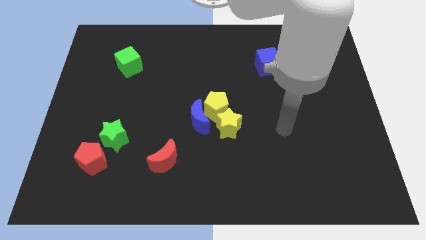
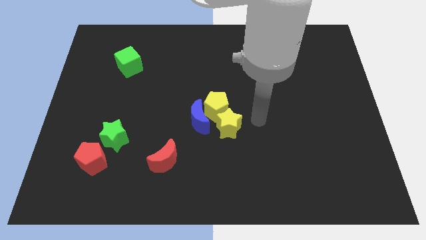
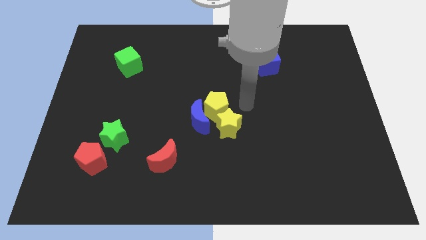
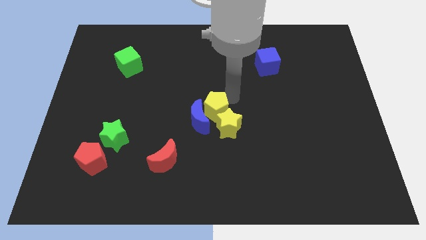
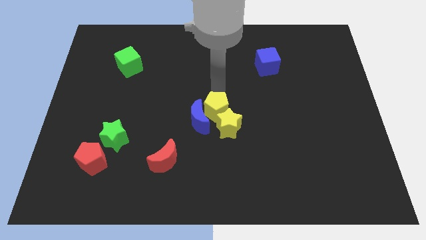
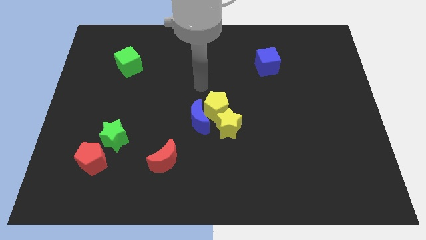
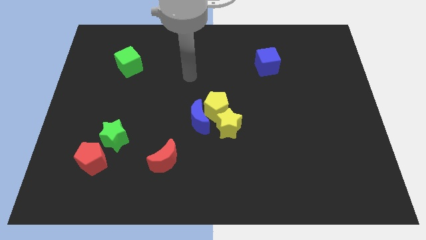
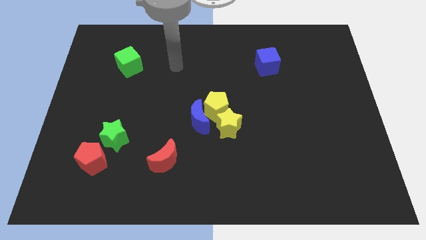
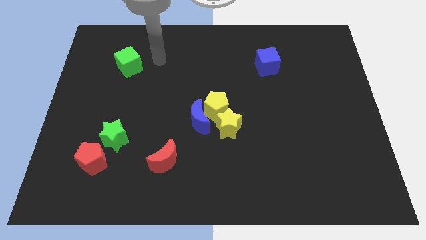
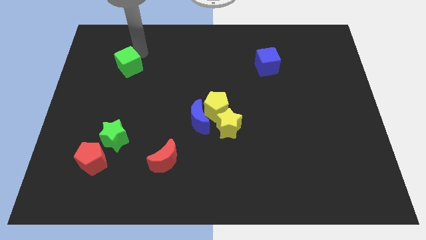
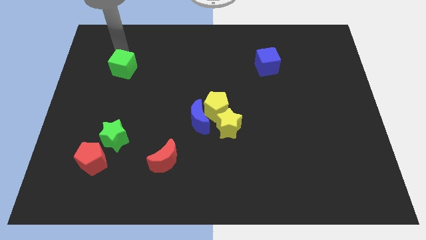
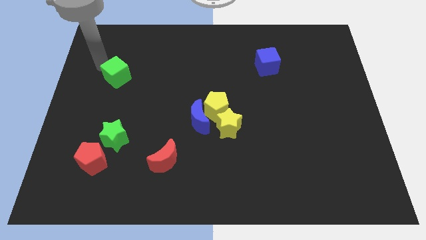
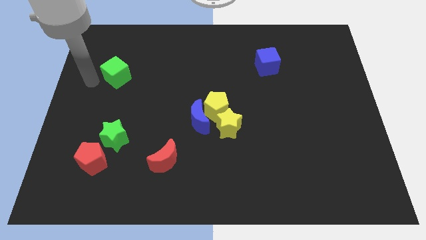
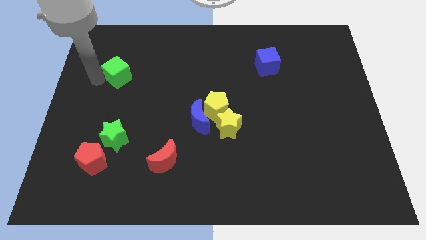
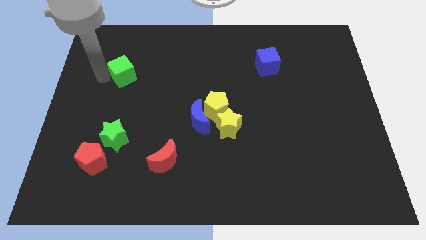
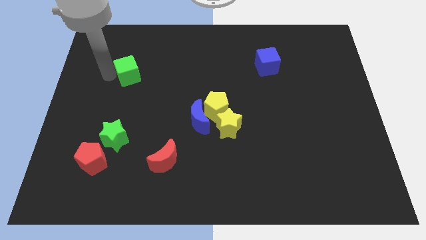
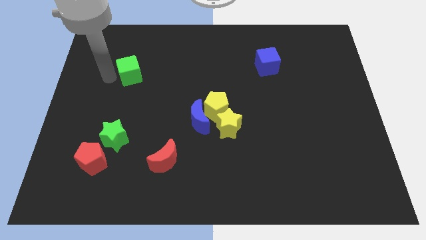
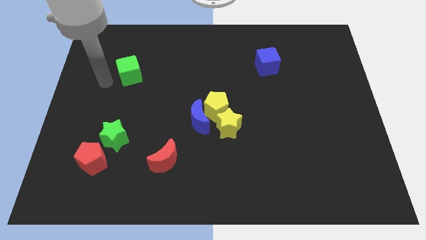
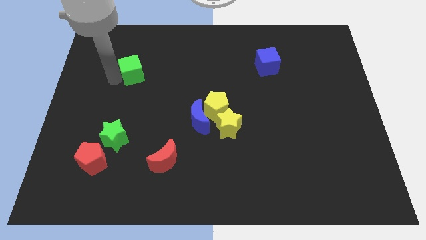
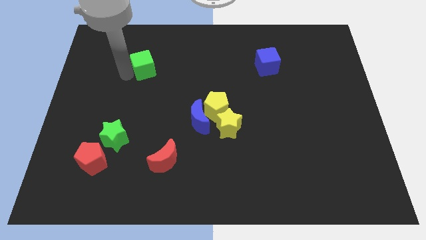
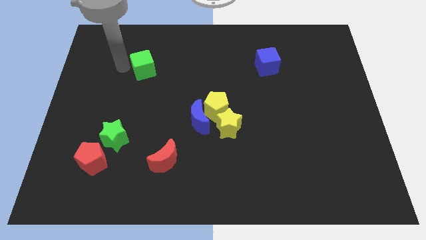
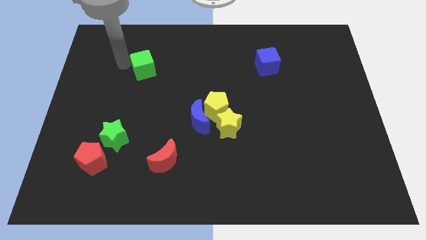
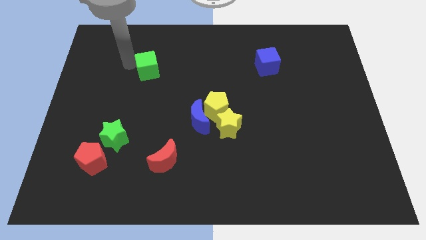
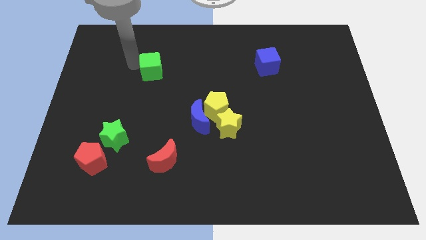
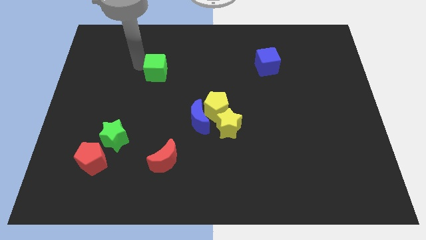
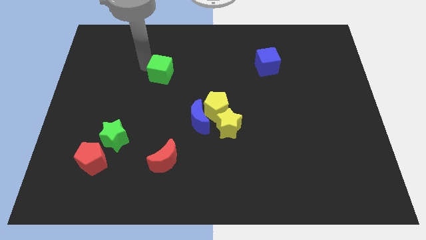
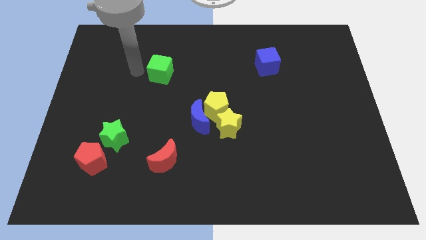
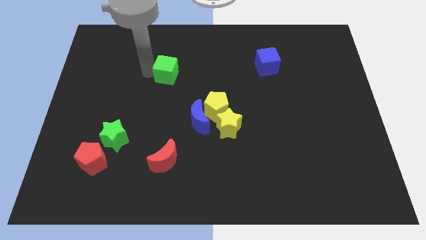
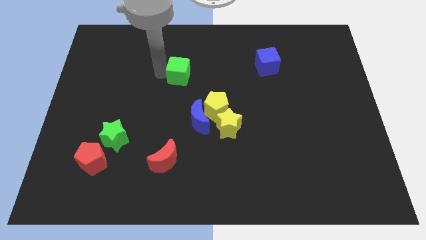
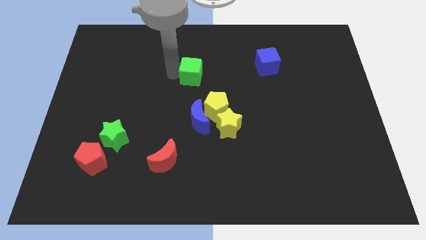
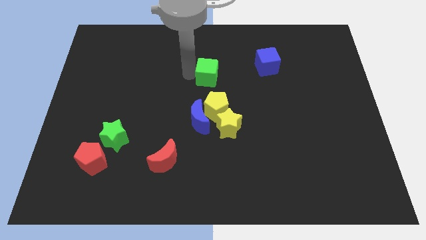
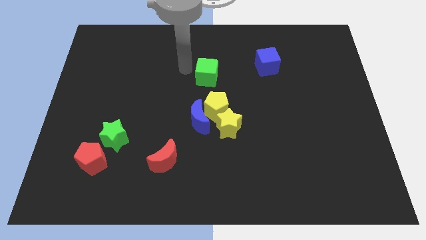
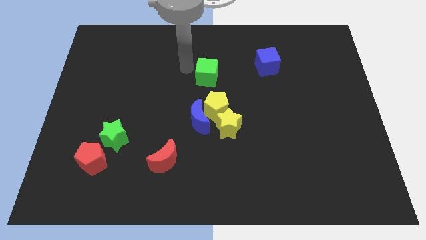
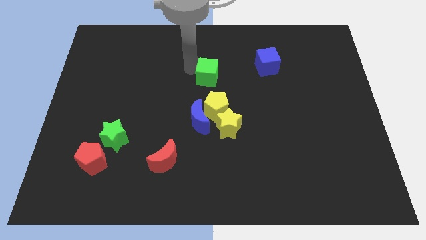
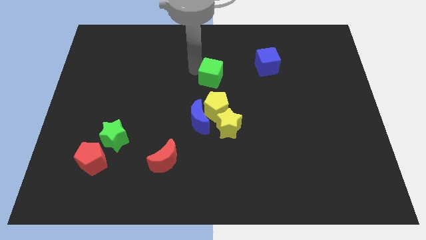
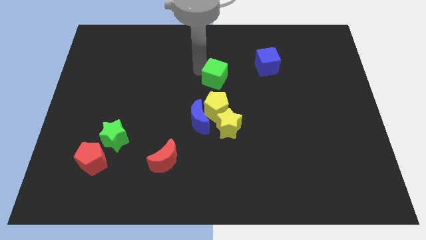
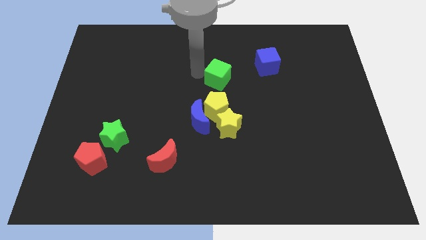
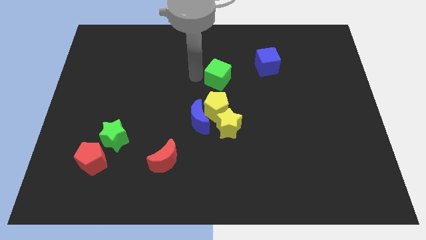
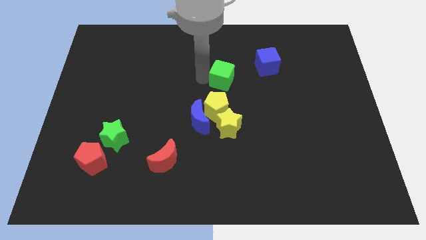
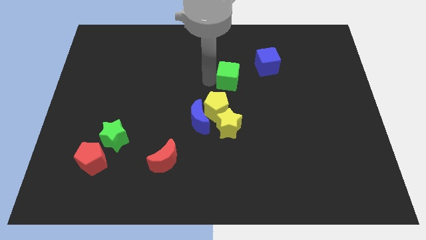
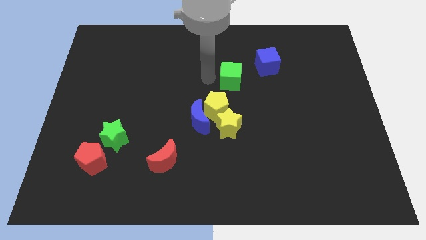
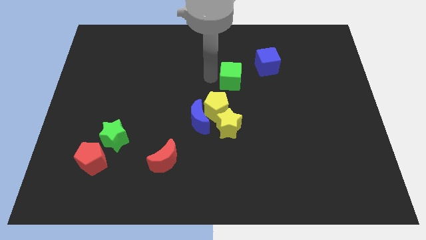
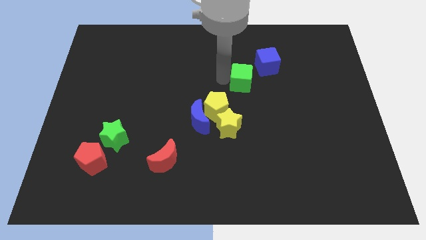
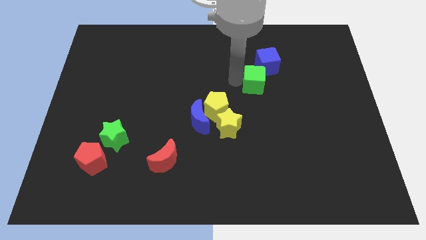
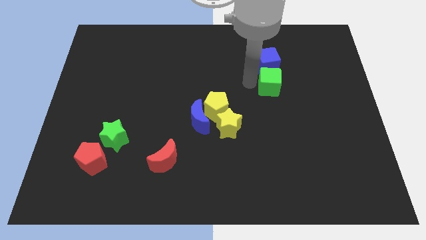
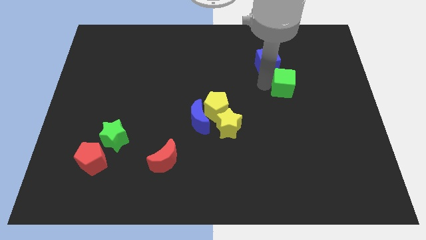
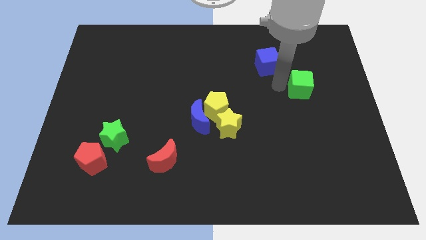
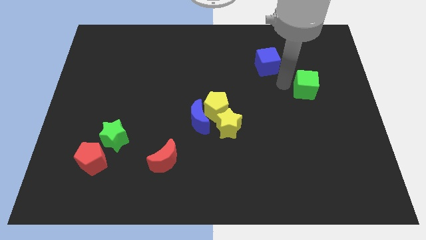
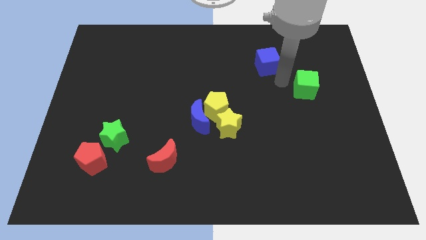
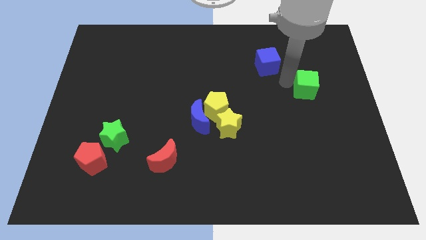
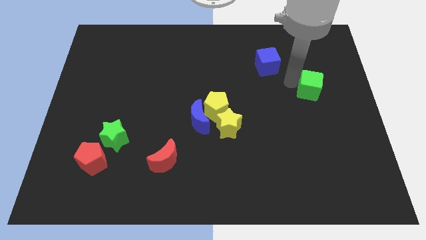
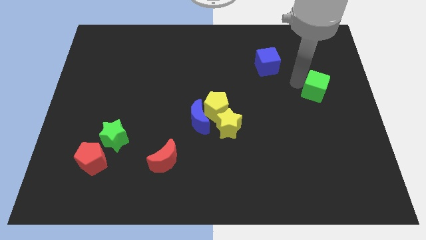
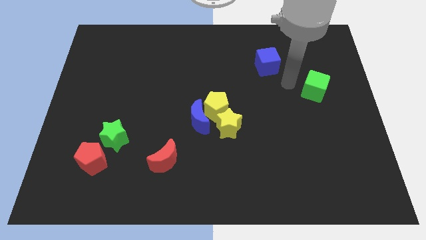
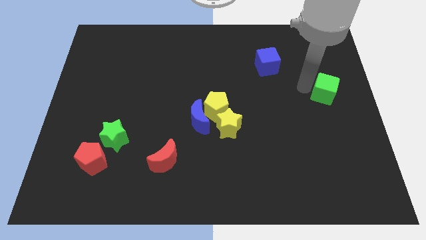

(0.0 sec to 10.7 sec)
put the green cube to the center right

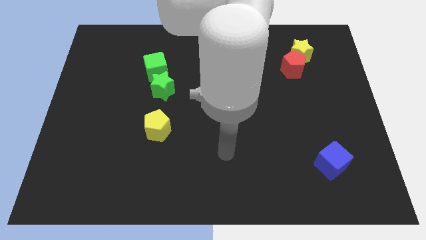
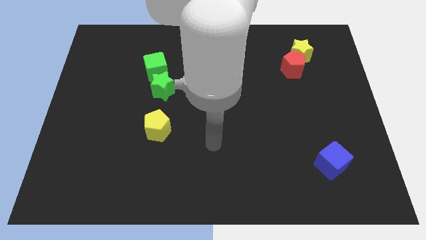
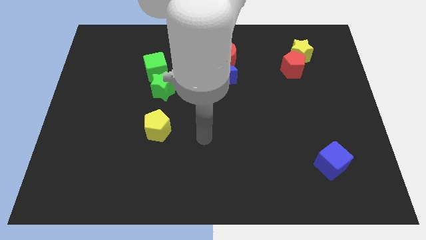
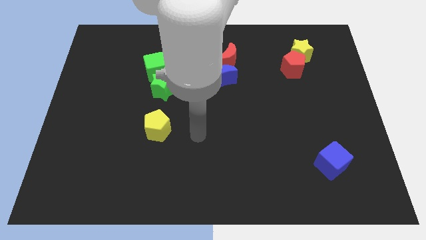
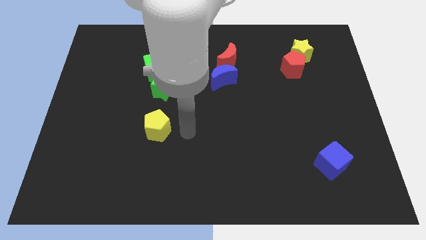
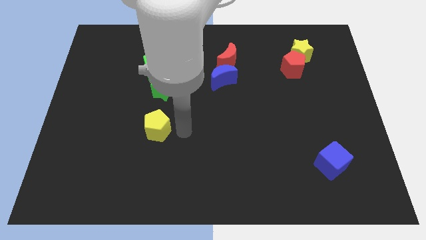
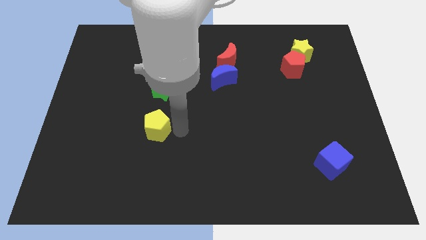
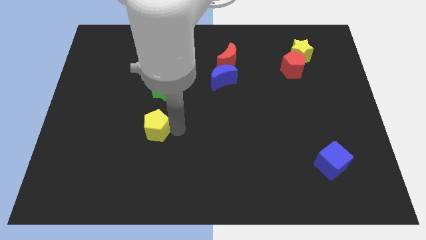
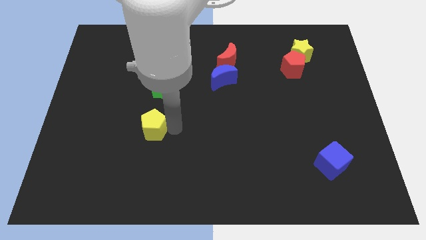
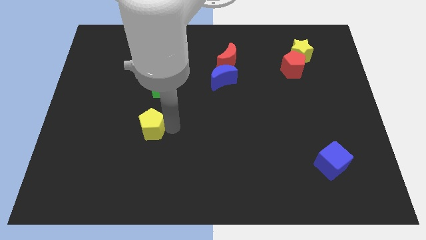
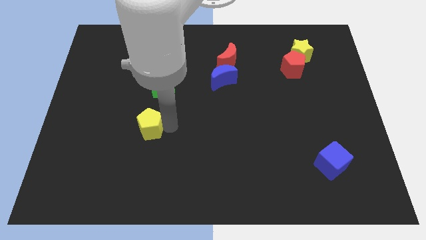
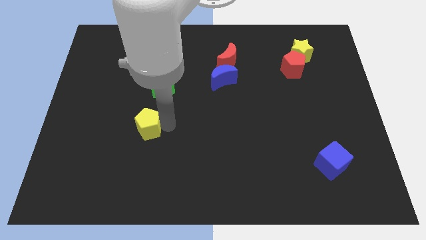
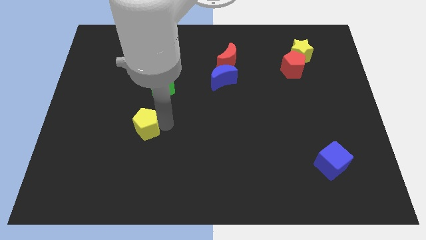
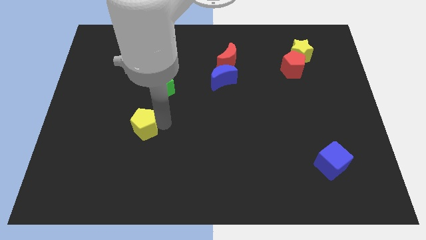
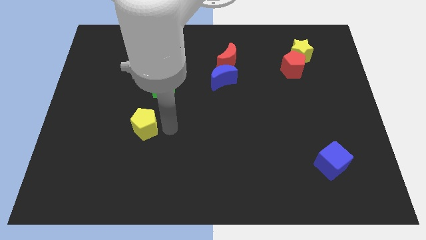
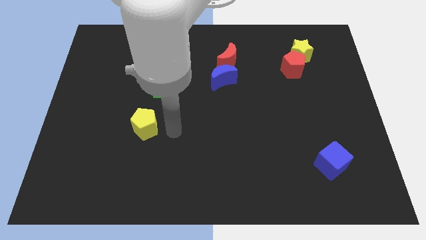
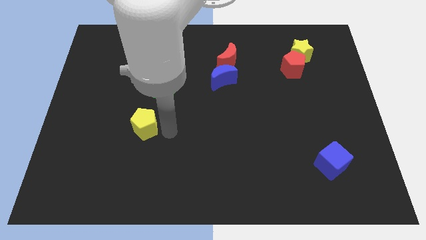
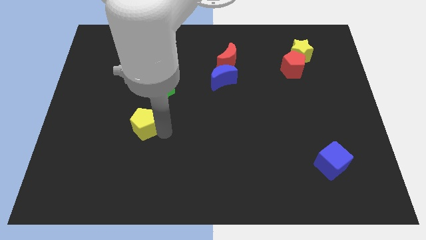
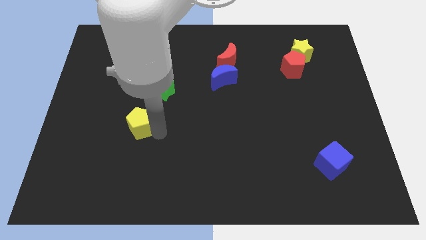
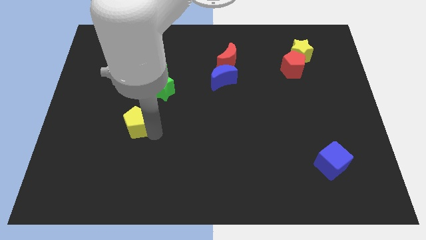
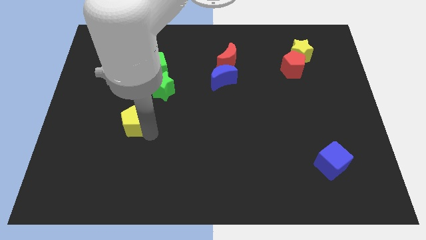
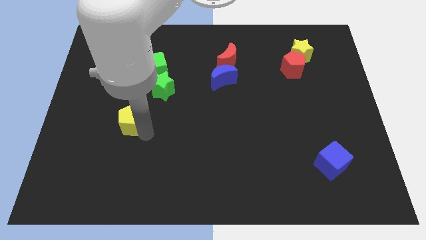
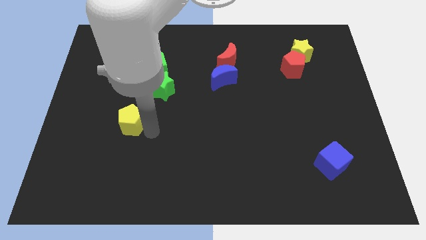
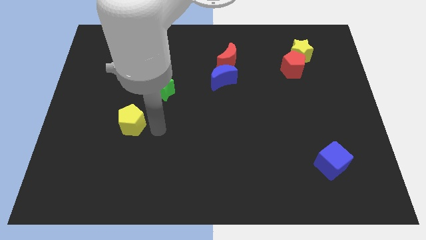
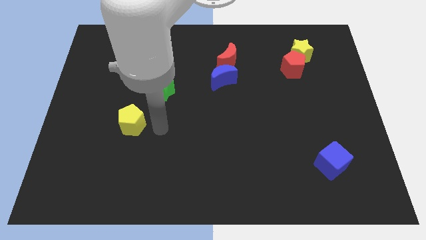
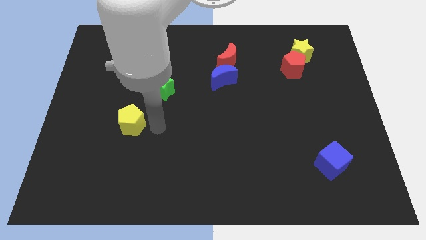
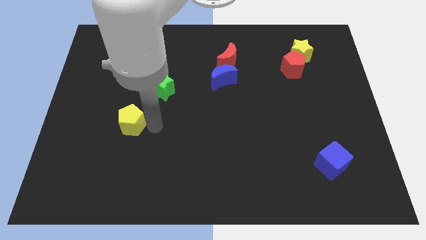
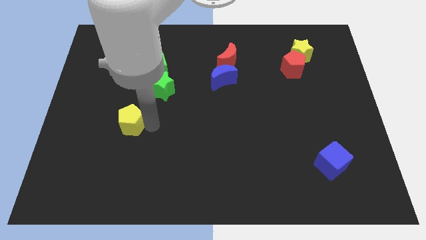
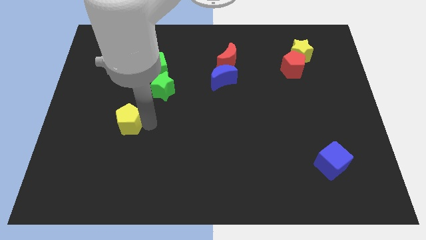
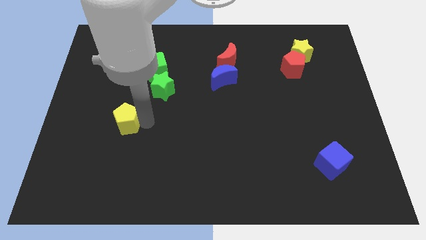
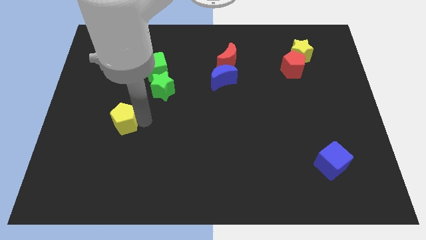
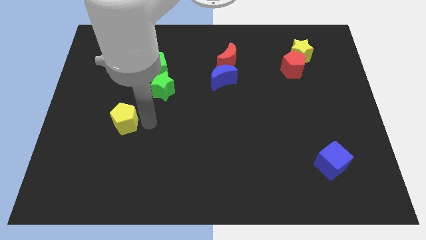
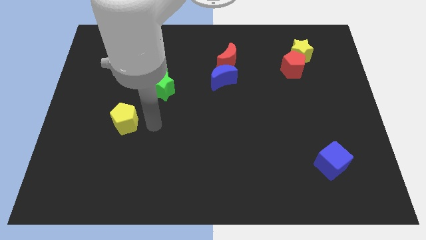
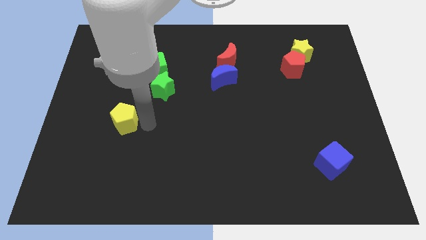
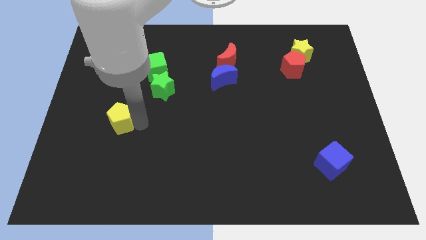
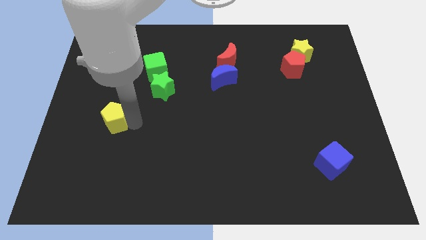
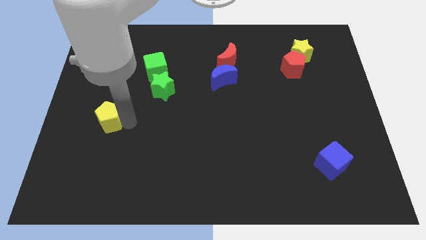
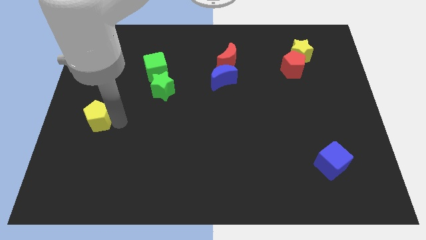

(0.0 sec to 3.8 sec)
slide the yellow pentagon to the left side of the board
